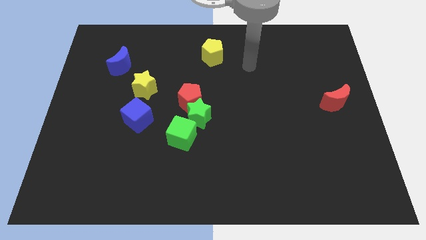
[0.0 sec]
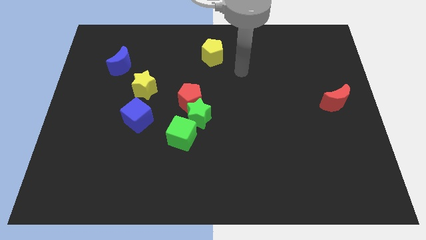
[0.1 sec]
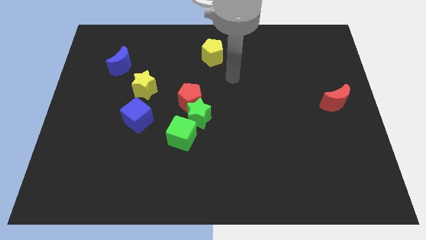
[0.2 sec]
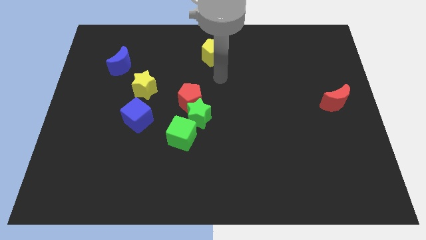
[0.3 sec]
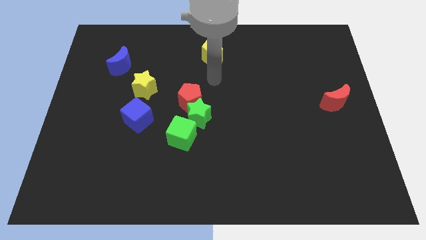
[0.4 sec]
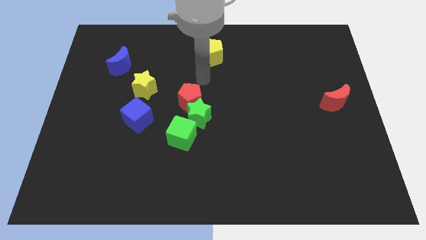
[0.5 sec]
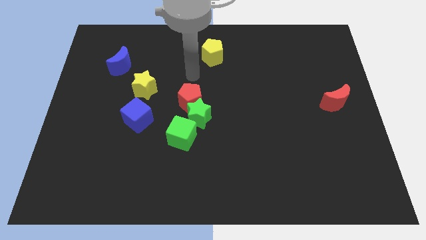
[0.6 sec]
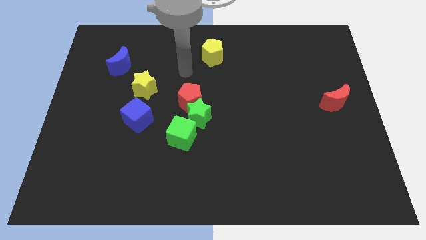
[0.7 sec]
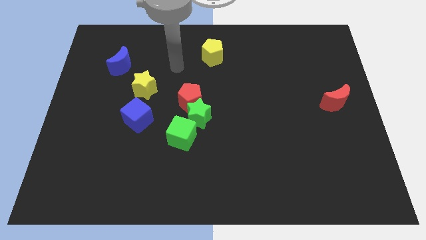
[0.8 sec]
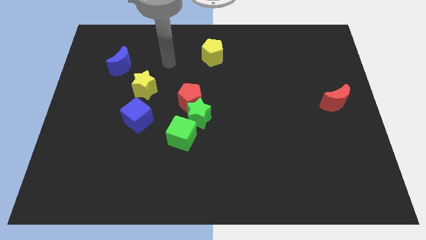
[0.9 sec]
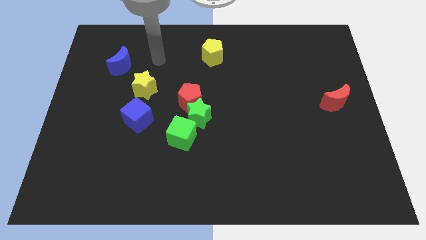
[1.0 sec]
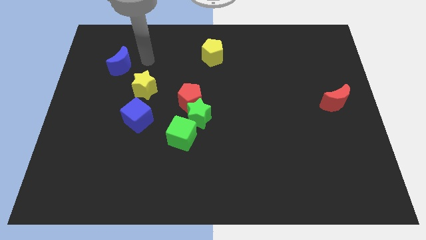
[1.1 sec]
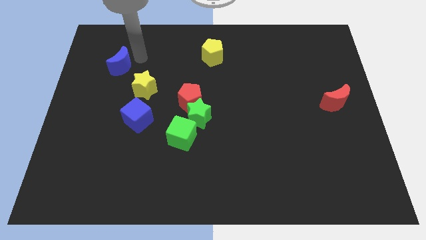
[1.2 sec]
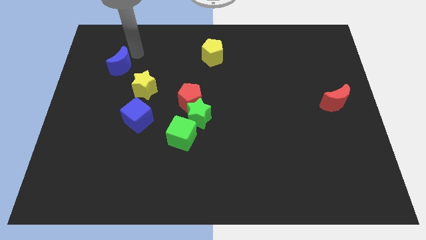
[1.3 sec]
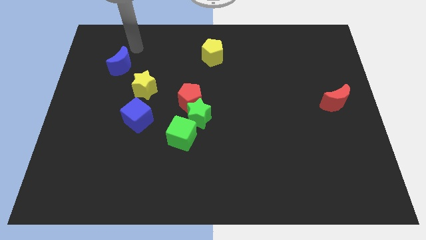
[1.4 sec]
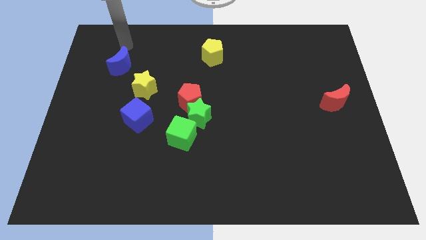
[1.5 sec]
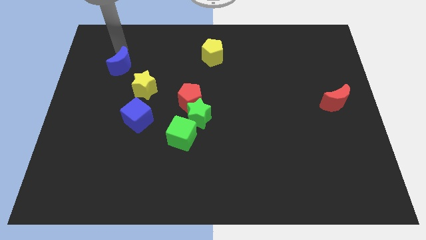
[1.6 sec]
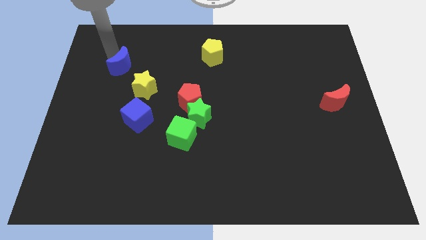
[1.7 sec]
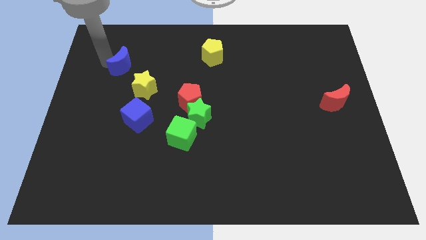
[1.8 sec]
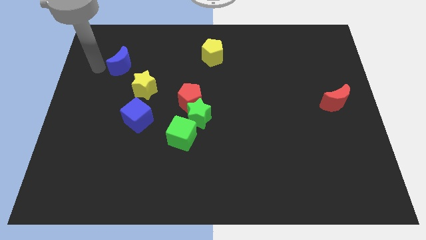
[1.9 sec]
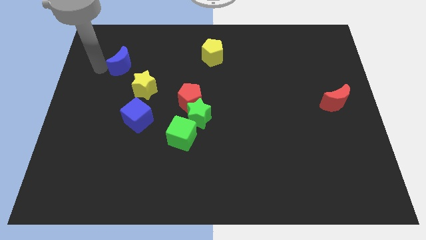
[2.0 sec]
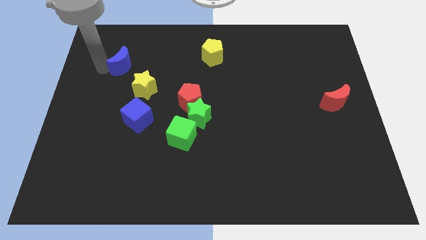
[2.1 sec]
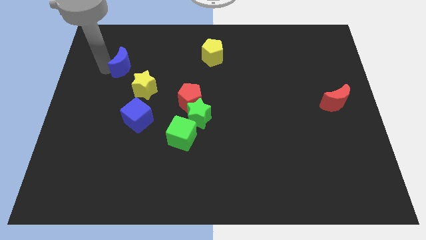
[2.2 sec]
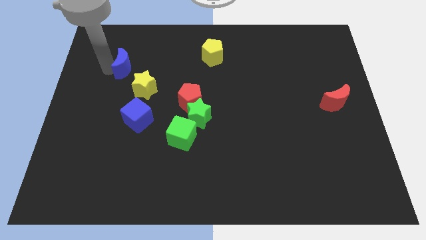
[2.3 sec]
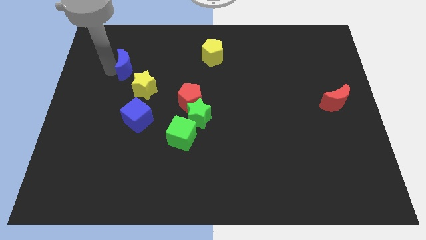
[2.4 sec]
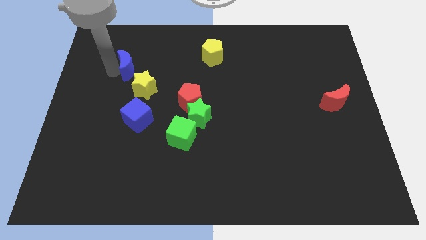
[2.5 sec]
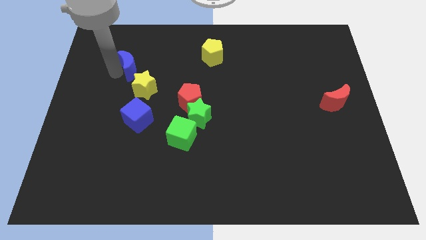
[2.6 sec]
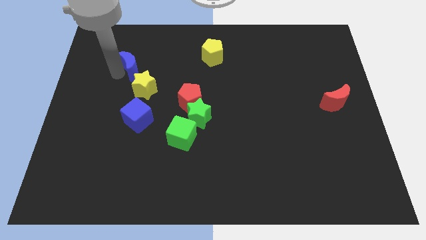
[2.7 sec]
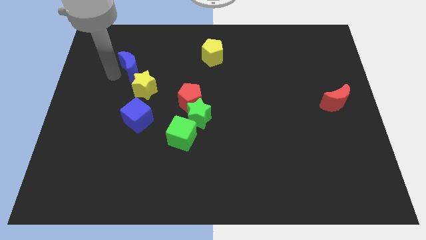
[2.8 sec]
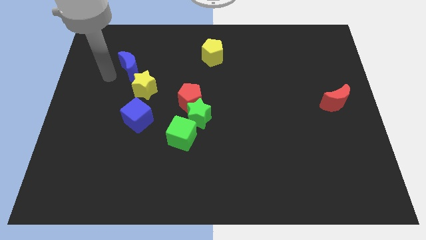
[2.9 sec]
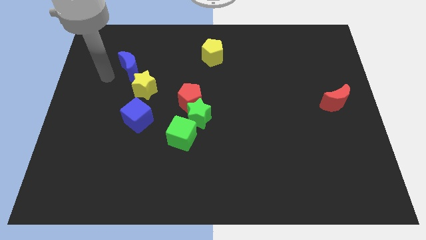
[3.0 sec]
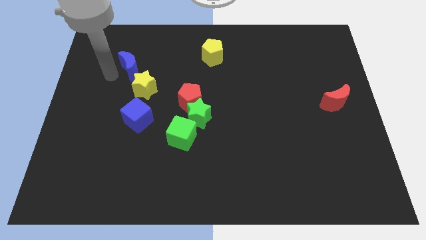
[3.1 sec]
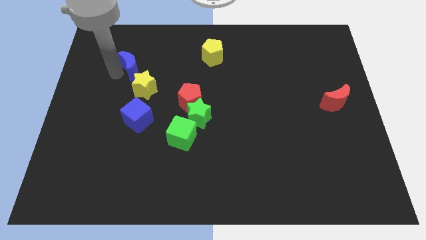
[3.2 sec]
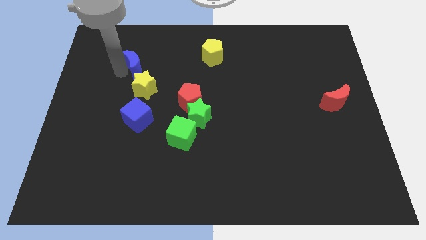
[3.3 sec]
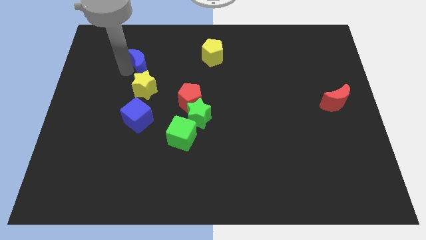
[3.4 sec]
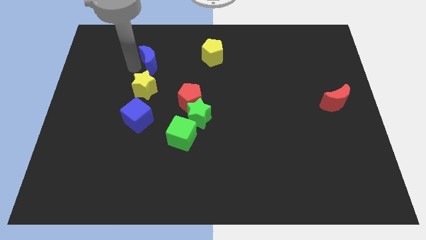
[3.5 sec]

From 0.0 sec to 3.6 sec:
slightly move the blue moon to the right

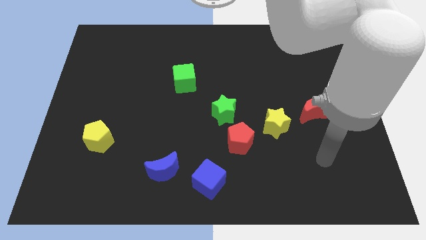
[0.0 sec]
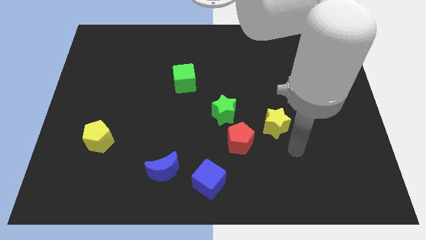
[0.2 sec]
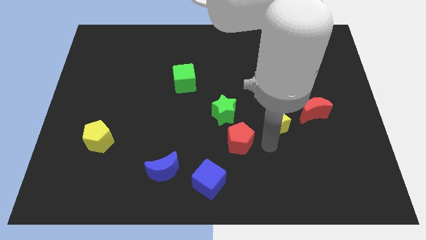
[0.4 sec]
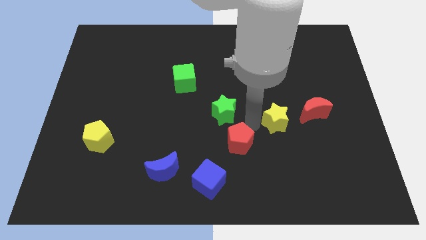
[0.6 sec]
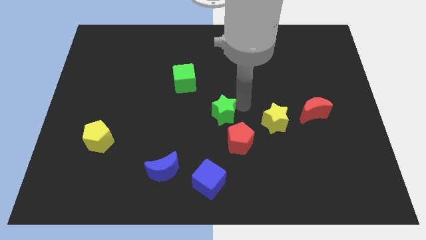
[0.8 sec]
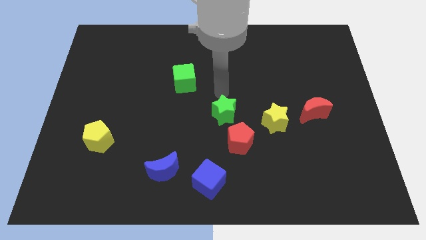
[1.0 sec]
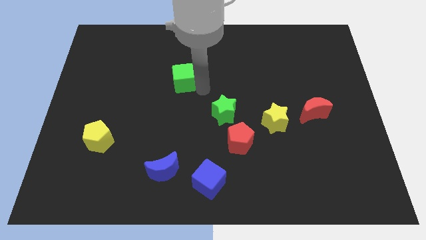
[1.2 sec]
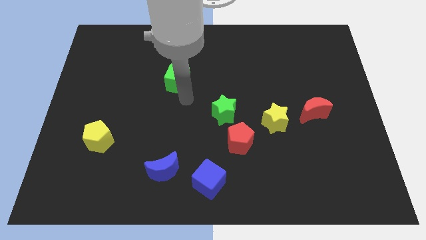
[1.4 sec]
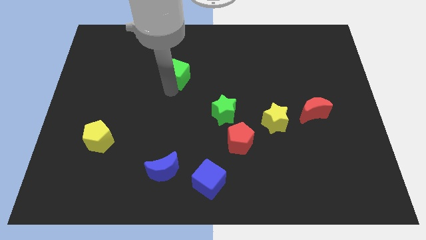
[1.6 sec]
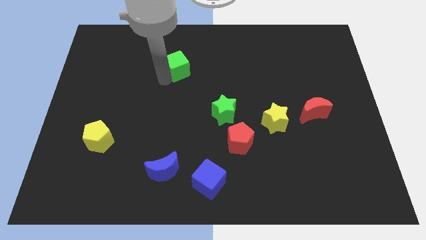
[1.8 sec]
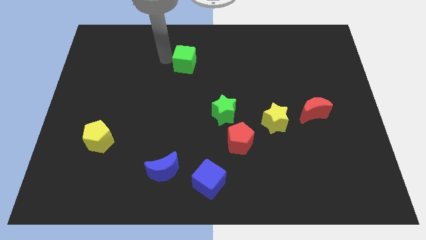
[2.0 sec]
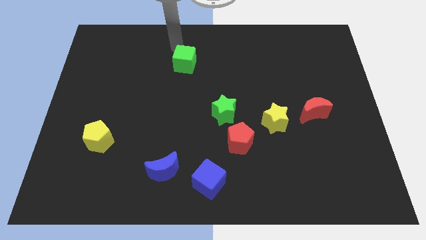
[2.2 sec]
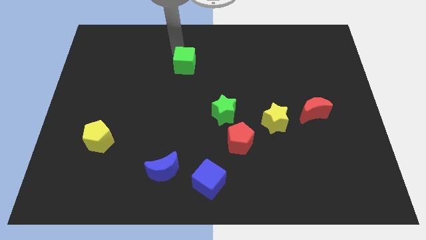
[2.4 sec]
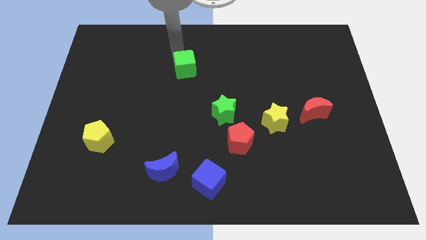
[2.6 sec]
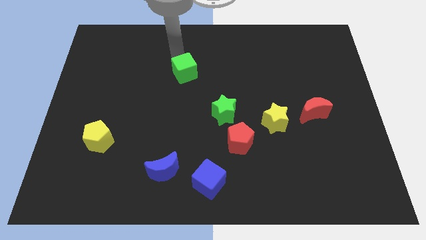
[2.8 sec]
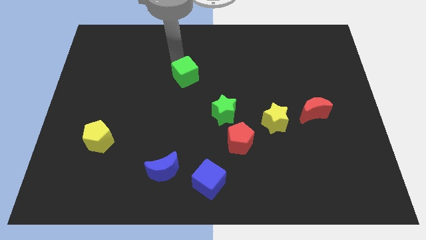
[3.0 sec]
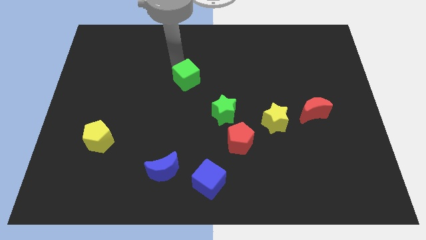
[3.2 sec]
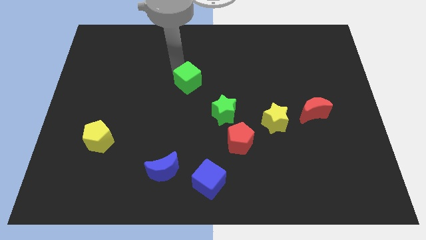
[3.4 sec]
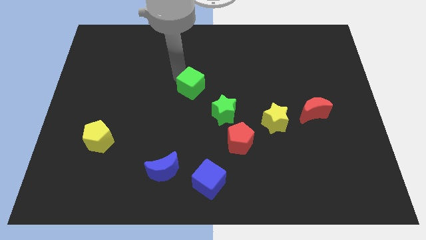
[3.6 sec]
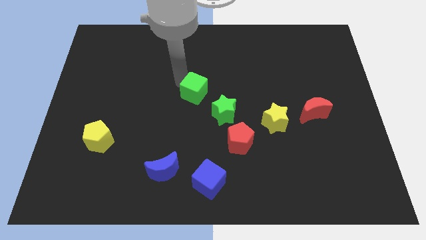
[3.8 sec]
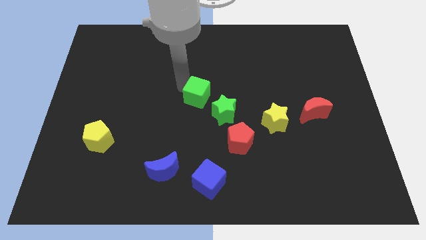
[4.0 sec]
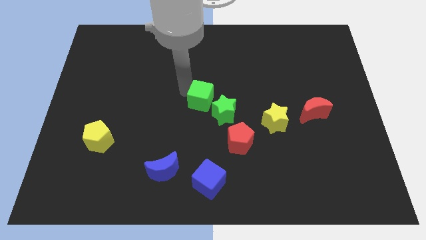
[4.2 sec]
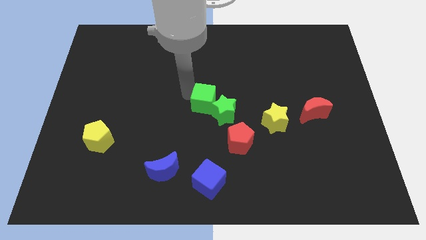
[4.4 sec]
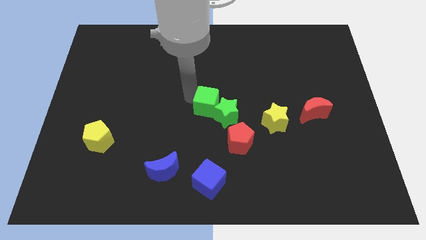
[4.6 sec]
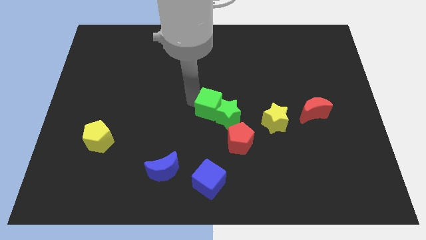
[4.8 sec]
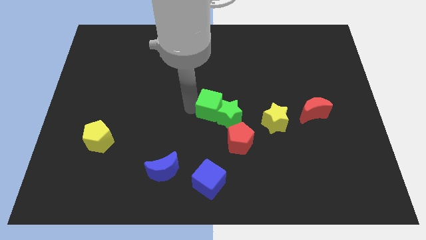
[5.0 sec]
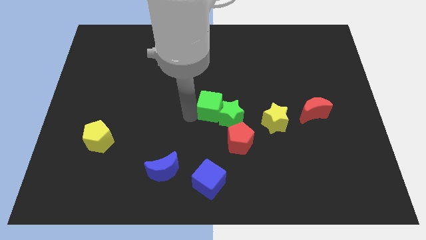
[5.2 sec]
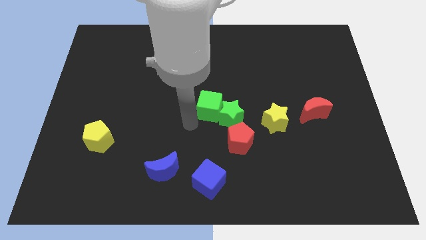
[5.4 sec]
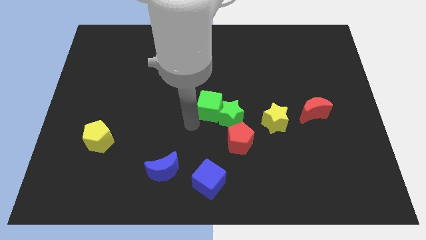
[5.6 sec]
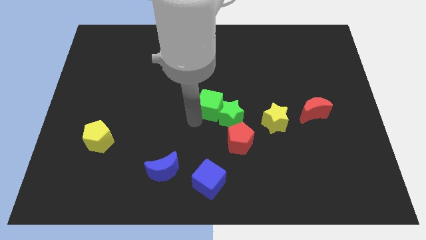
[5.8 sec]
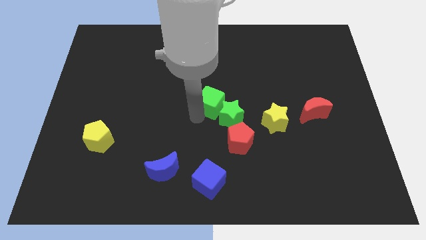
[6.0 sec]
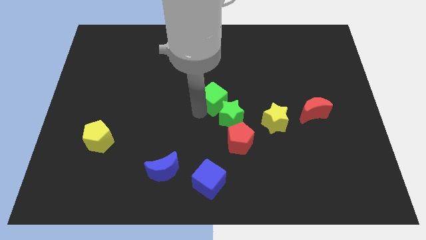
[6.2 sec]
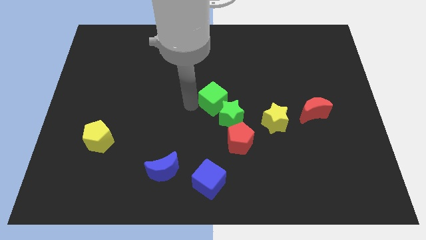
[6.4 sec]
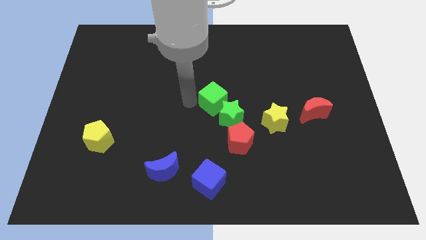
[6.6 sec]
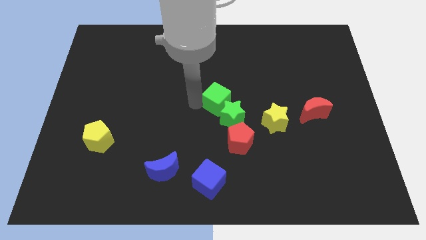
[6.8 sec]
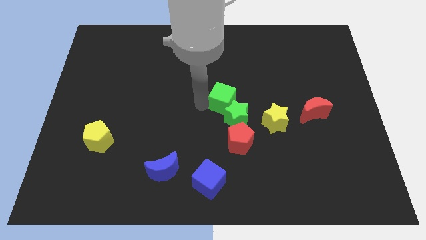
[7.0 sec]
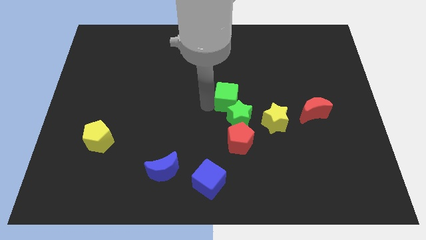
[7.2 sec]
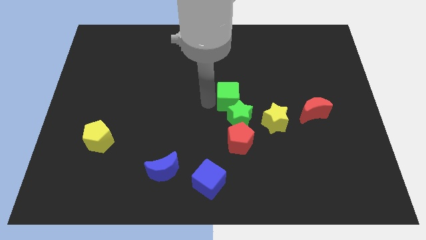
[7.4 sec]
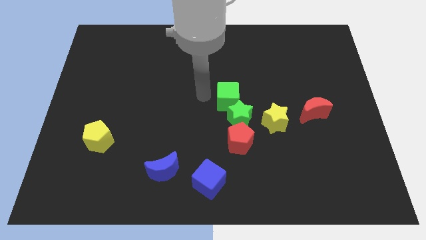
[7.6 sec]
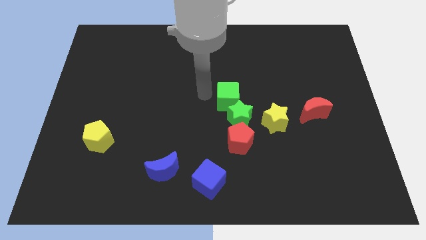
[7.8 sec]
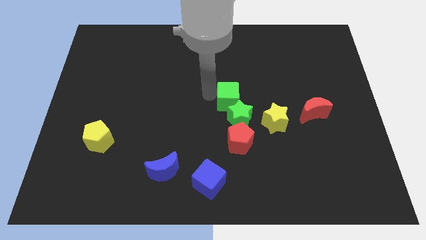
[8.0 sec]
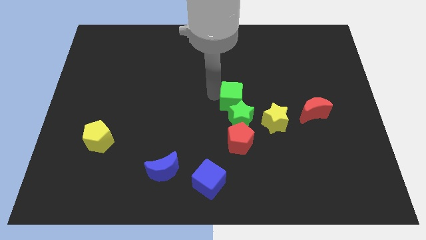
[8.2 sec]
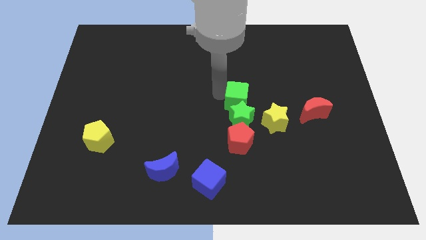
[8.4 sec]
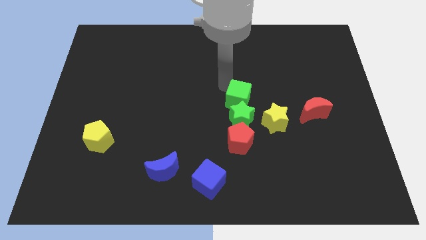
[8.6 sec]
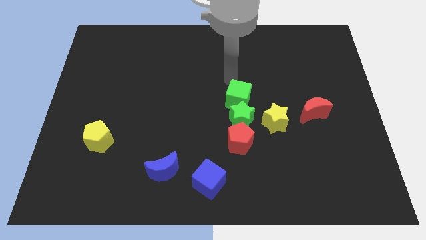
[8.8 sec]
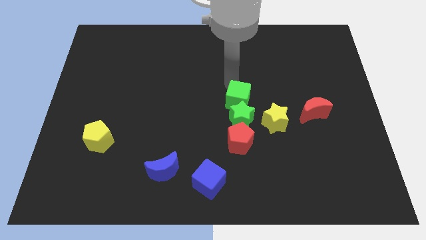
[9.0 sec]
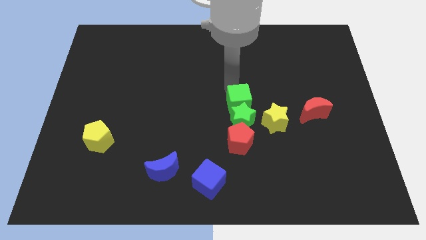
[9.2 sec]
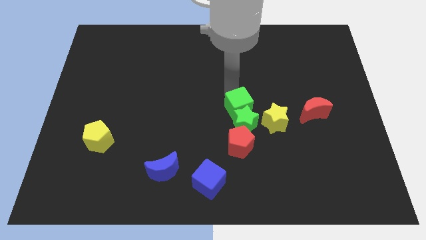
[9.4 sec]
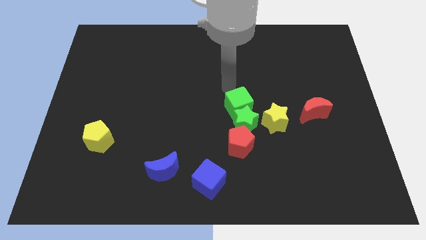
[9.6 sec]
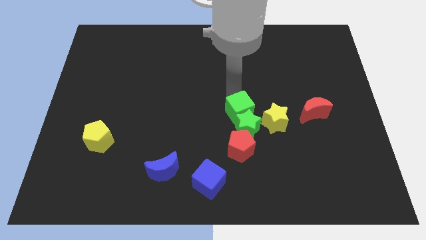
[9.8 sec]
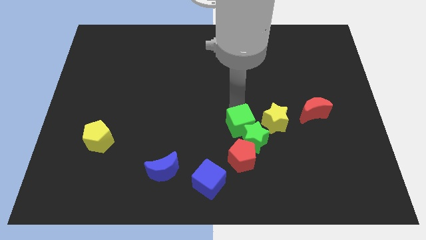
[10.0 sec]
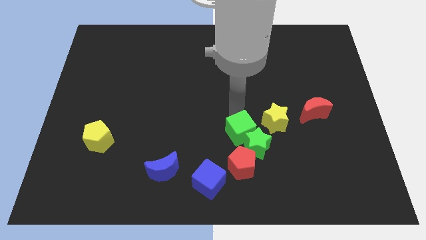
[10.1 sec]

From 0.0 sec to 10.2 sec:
move the green cube downwards and to the right
